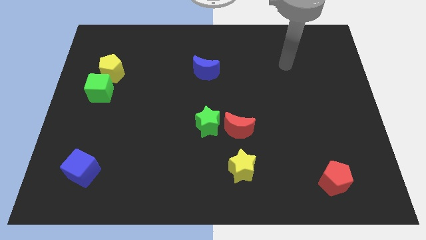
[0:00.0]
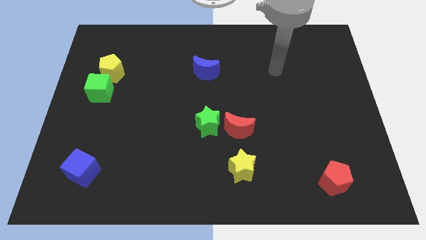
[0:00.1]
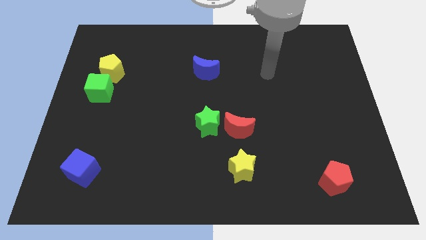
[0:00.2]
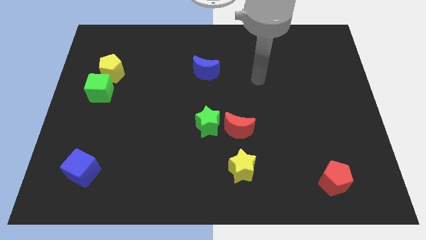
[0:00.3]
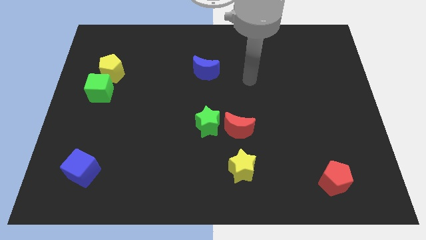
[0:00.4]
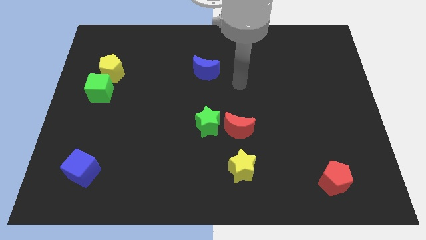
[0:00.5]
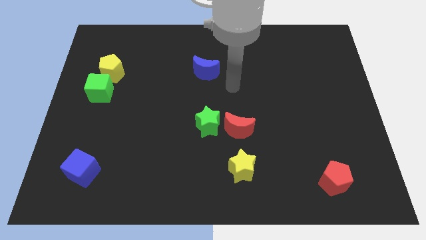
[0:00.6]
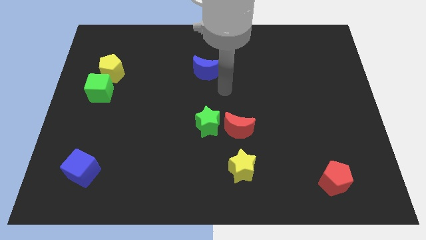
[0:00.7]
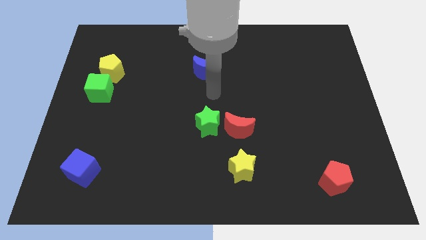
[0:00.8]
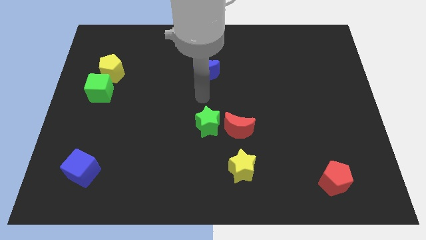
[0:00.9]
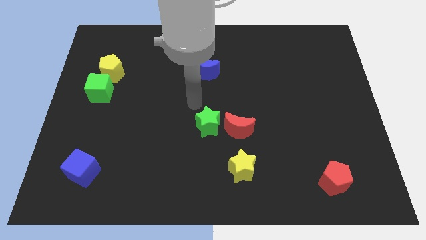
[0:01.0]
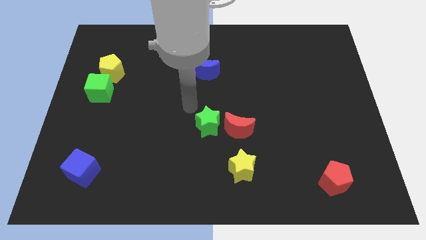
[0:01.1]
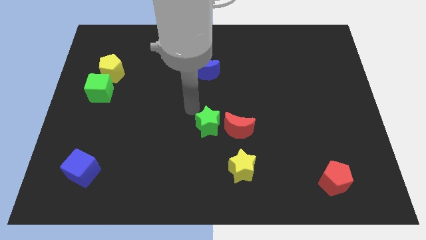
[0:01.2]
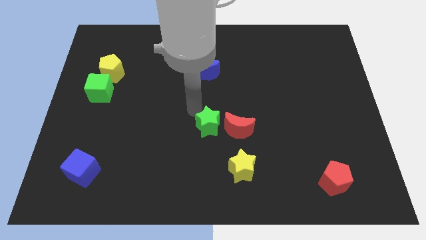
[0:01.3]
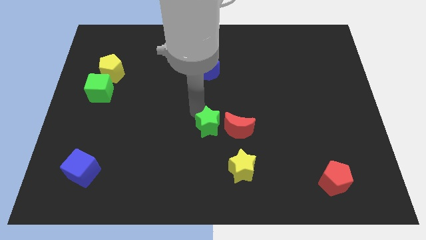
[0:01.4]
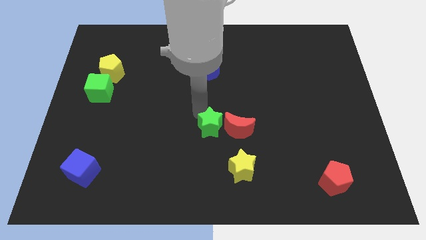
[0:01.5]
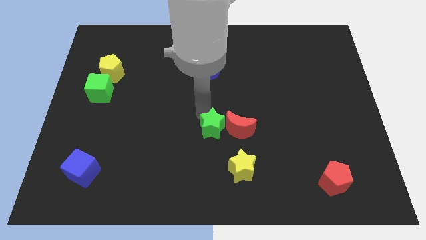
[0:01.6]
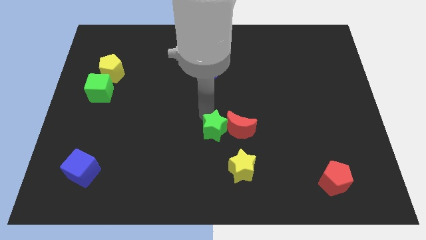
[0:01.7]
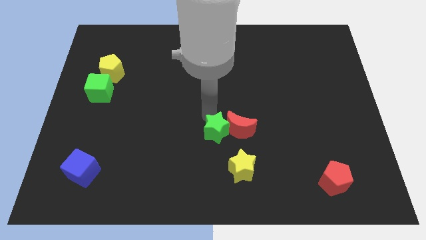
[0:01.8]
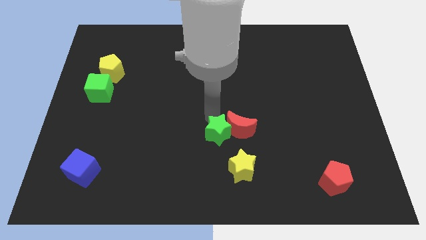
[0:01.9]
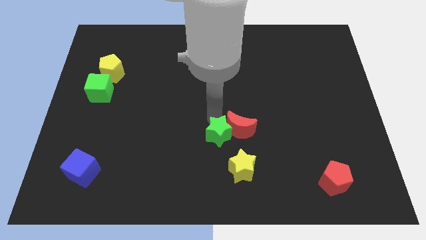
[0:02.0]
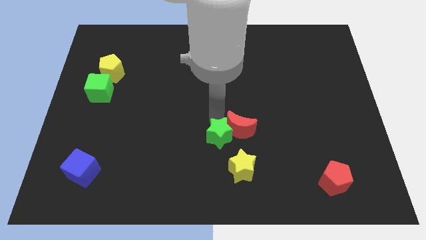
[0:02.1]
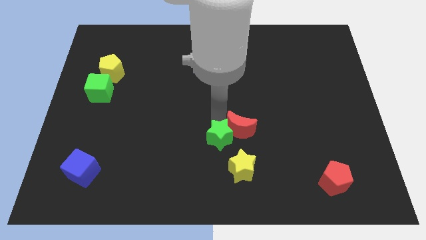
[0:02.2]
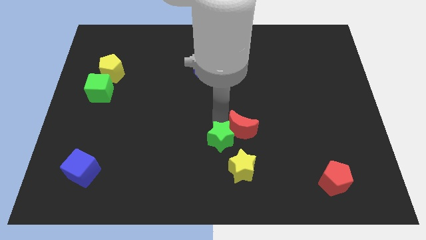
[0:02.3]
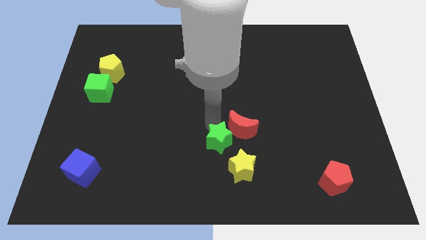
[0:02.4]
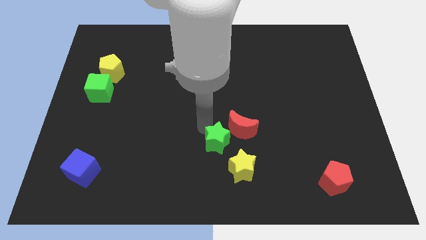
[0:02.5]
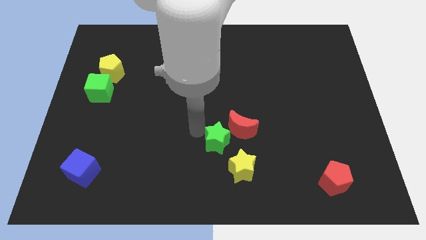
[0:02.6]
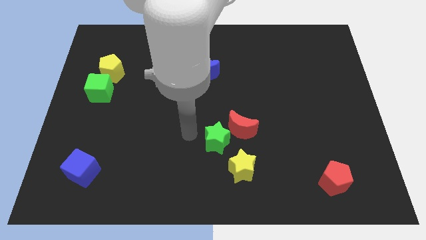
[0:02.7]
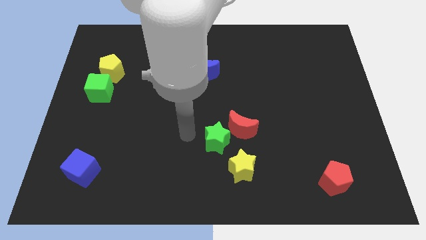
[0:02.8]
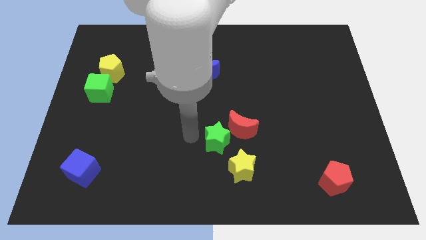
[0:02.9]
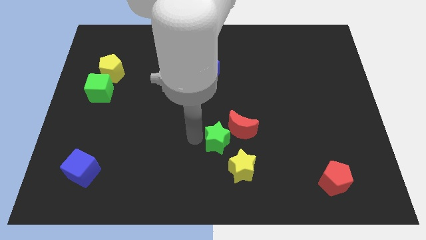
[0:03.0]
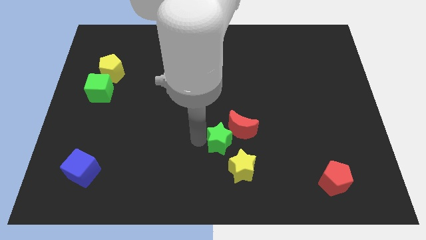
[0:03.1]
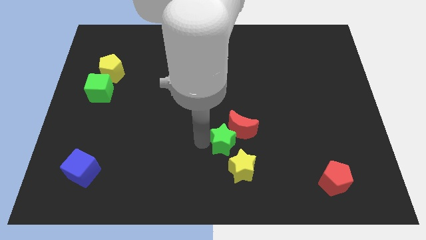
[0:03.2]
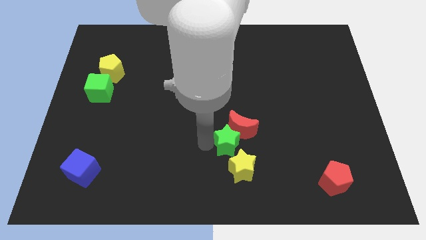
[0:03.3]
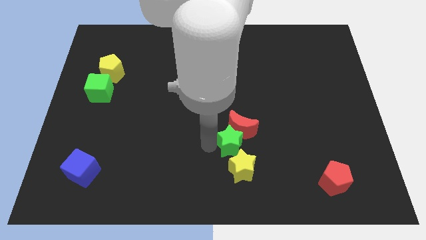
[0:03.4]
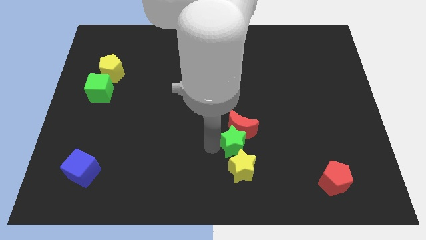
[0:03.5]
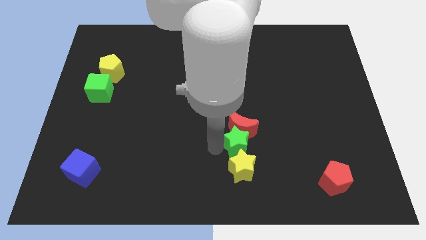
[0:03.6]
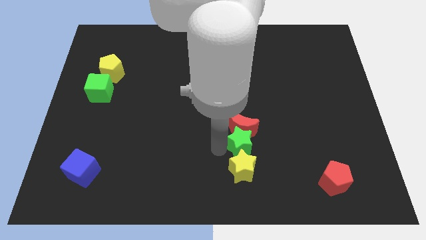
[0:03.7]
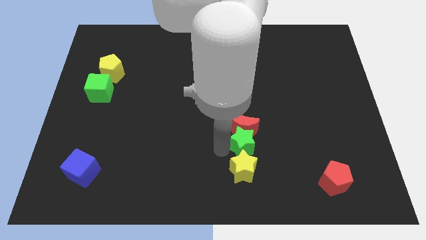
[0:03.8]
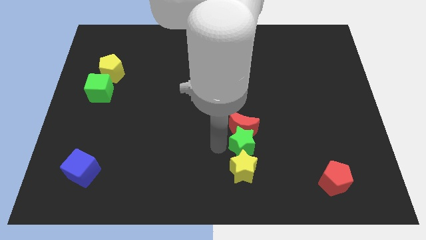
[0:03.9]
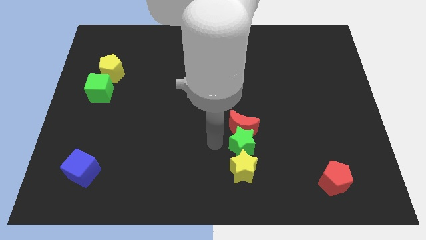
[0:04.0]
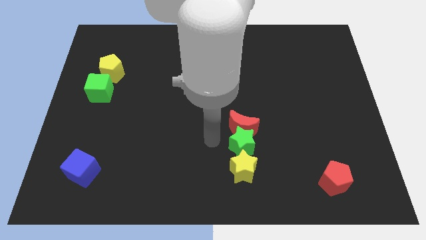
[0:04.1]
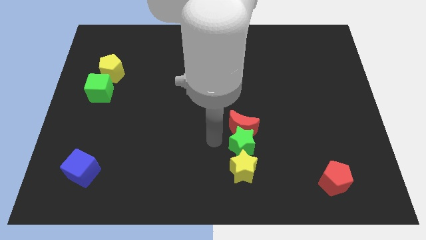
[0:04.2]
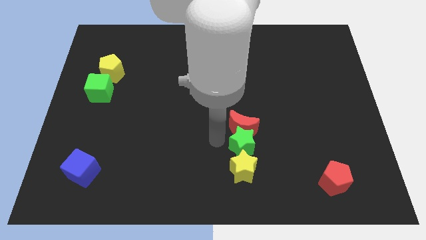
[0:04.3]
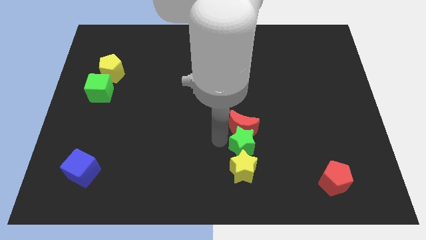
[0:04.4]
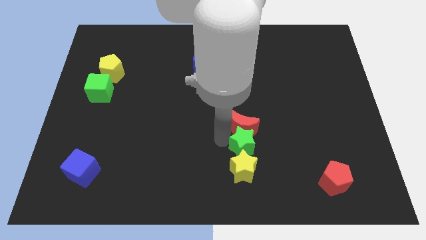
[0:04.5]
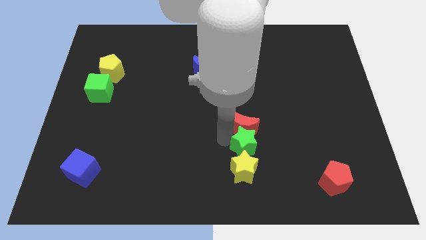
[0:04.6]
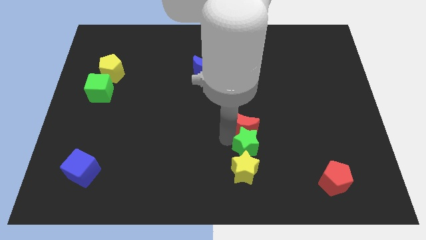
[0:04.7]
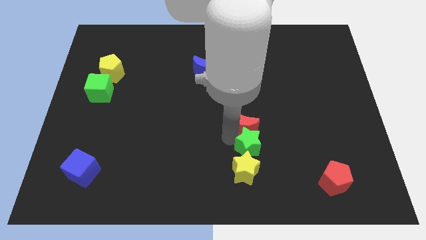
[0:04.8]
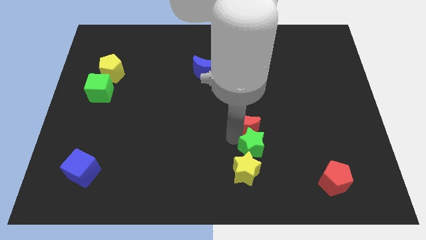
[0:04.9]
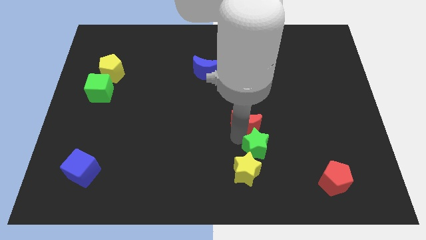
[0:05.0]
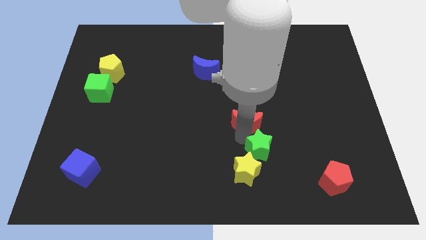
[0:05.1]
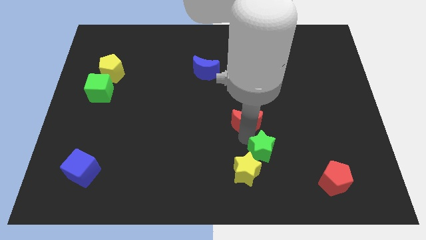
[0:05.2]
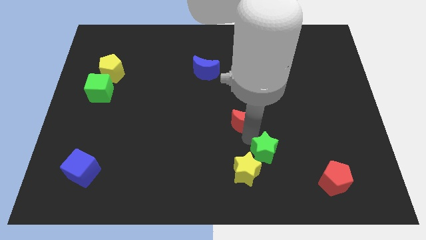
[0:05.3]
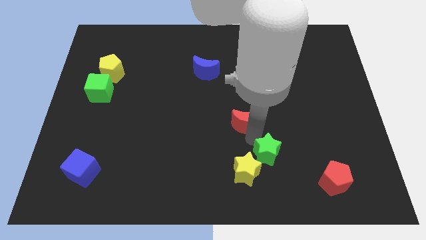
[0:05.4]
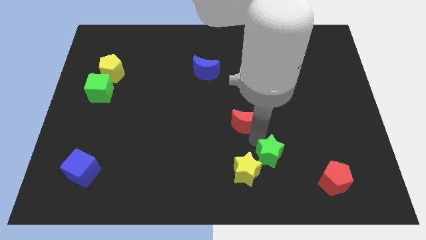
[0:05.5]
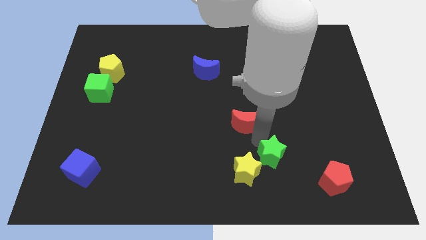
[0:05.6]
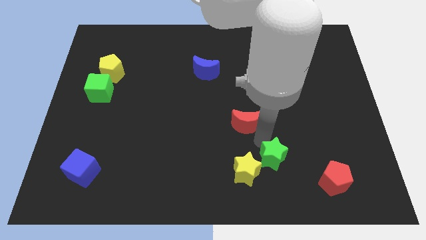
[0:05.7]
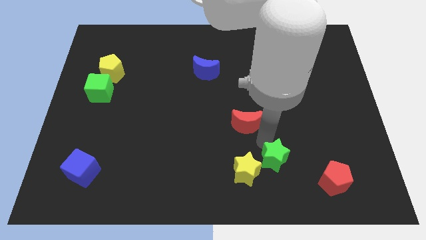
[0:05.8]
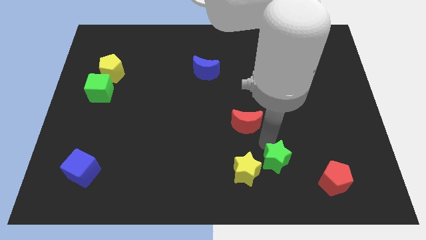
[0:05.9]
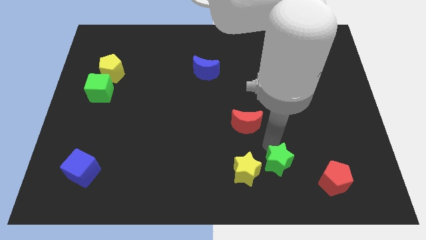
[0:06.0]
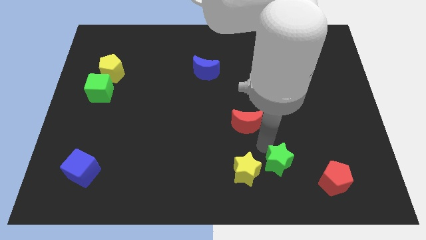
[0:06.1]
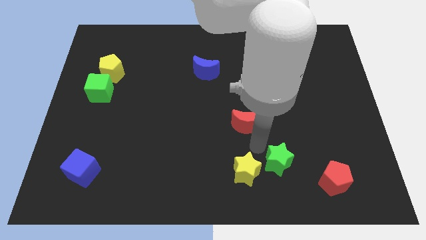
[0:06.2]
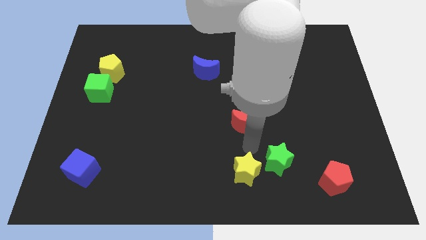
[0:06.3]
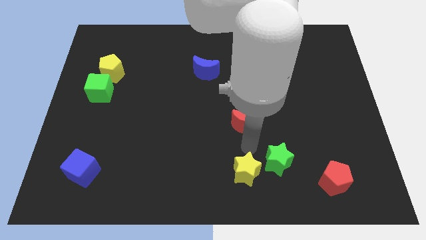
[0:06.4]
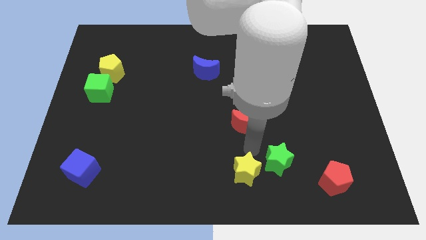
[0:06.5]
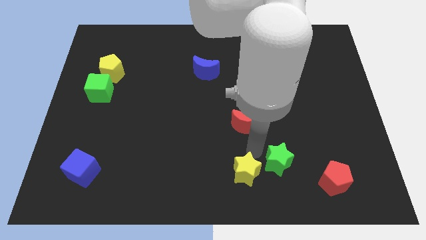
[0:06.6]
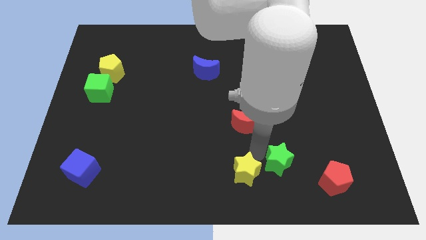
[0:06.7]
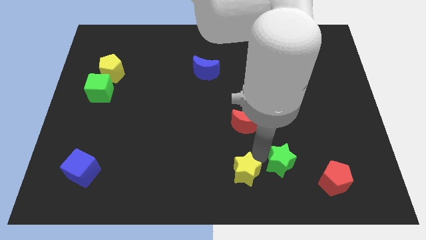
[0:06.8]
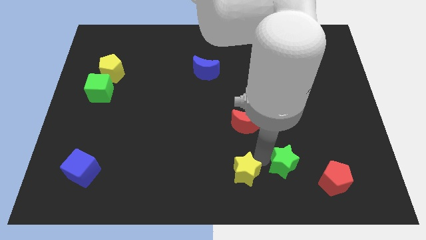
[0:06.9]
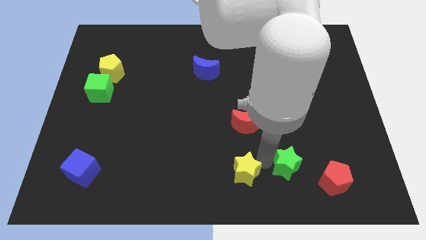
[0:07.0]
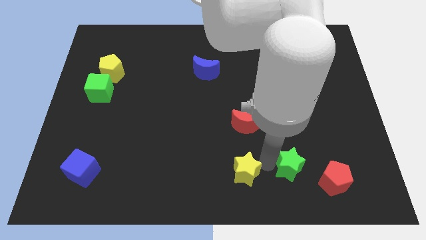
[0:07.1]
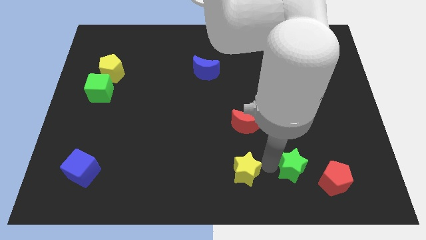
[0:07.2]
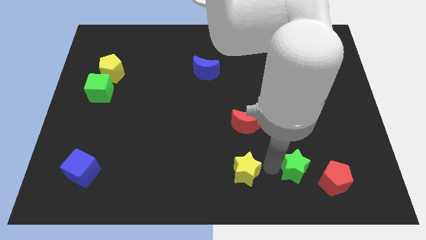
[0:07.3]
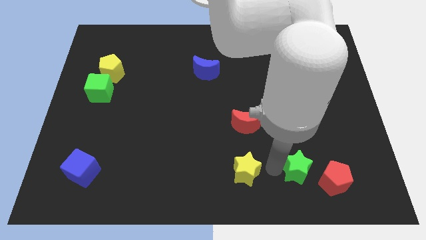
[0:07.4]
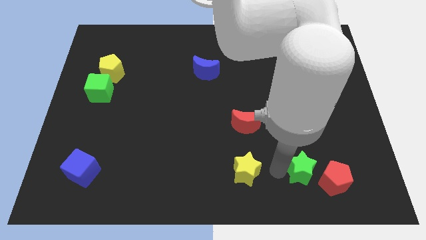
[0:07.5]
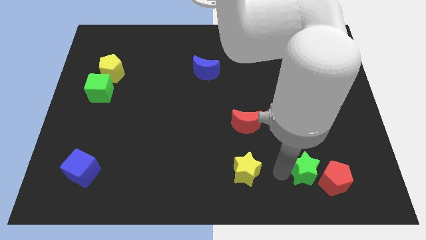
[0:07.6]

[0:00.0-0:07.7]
push the green star close to the red pentagon
